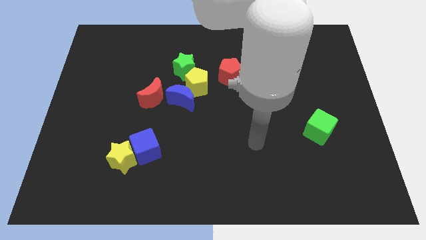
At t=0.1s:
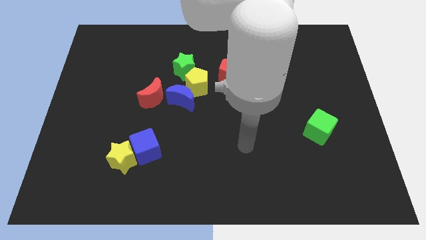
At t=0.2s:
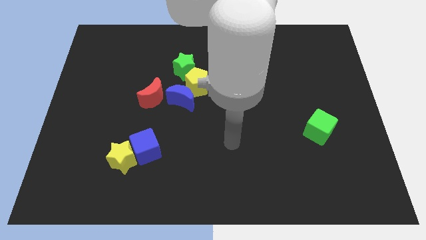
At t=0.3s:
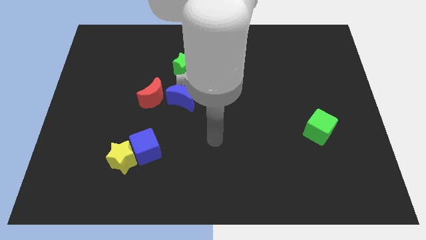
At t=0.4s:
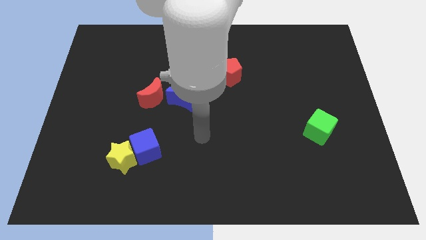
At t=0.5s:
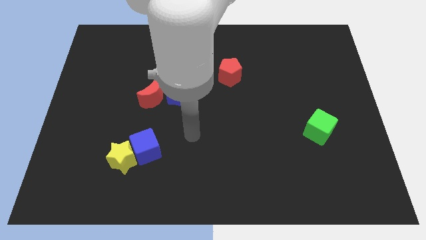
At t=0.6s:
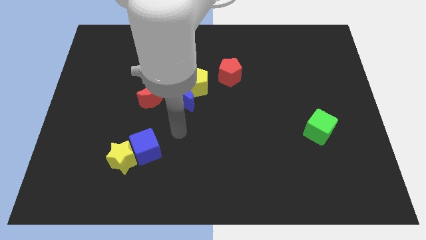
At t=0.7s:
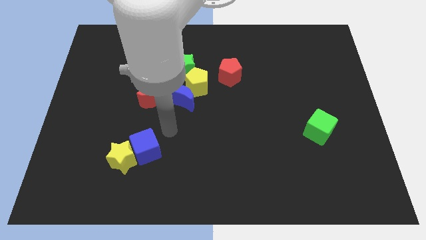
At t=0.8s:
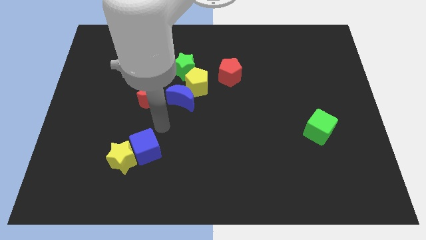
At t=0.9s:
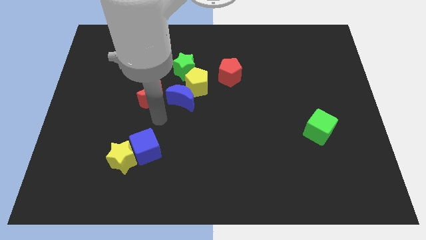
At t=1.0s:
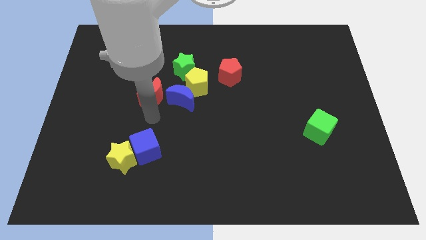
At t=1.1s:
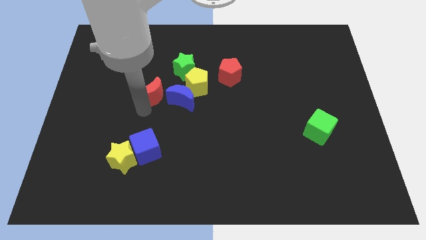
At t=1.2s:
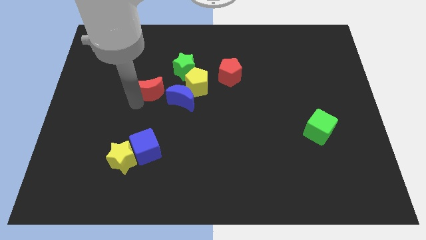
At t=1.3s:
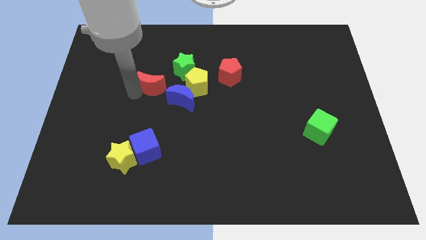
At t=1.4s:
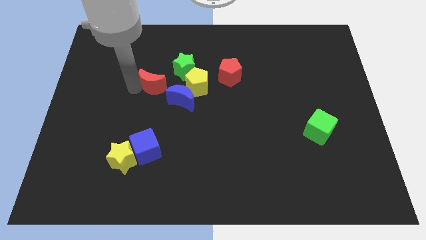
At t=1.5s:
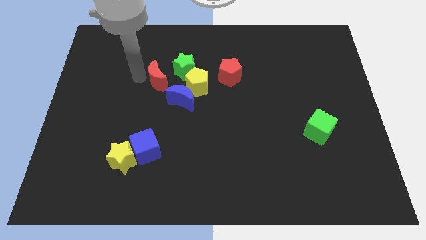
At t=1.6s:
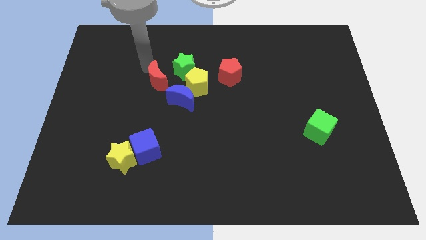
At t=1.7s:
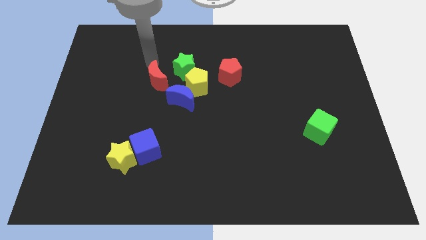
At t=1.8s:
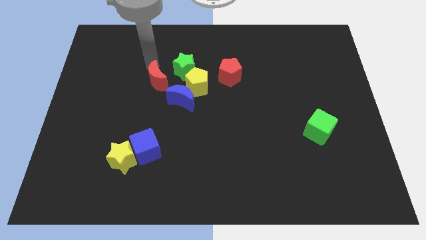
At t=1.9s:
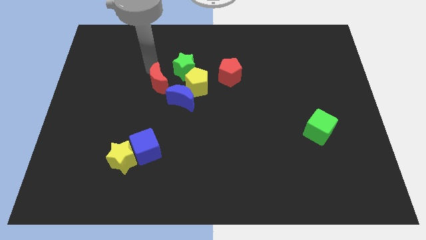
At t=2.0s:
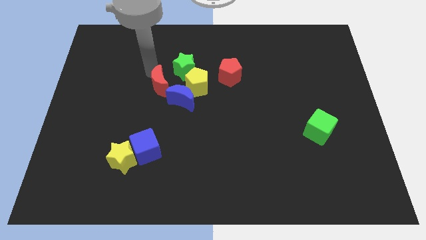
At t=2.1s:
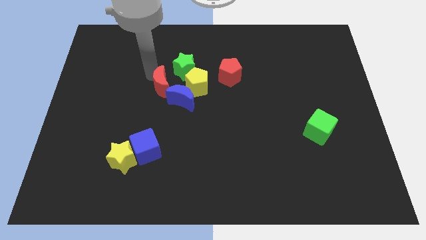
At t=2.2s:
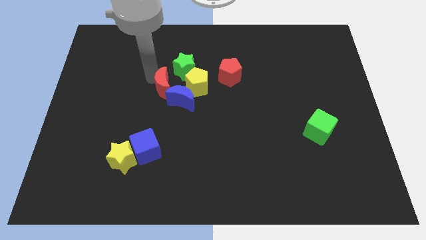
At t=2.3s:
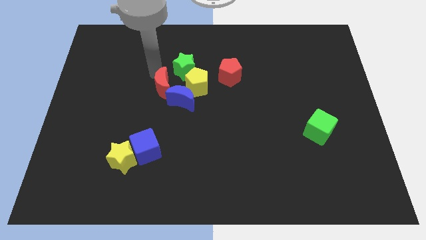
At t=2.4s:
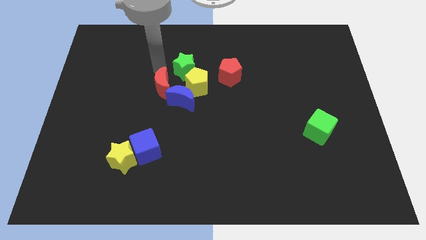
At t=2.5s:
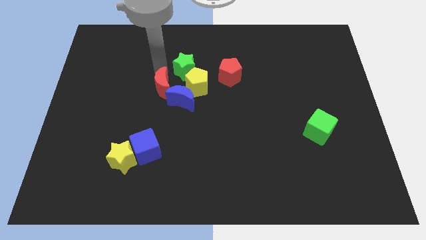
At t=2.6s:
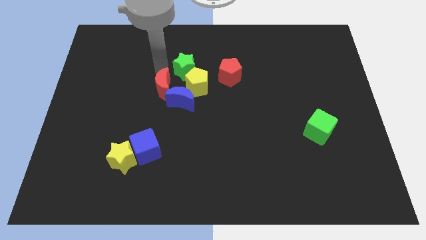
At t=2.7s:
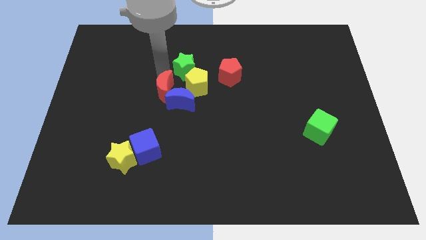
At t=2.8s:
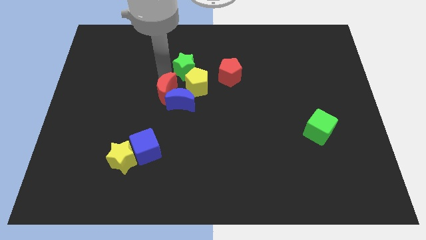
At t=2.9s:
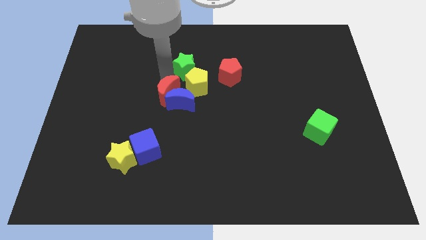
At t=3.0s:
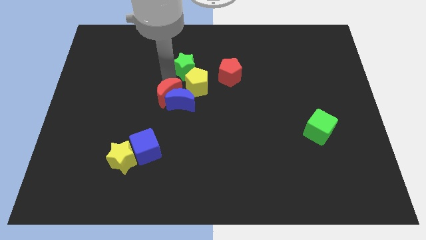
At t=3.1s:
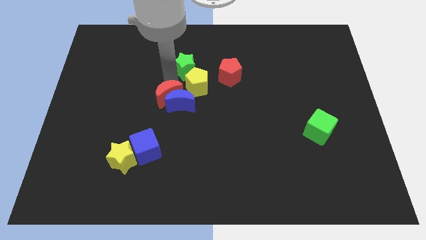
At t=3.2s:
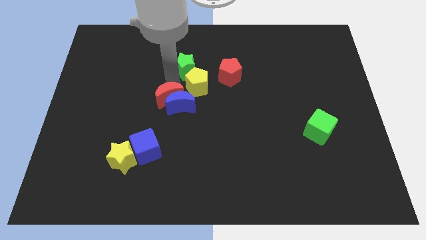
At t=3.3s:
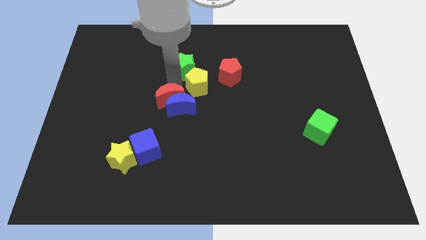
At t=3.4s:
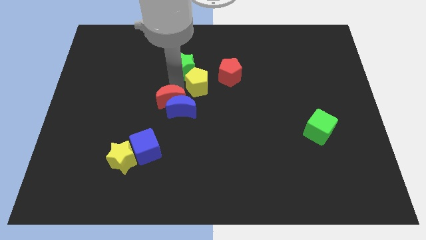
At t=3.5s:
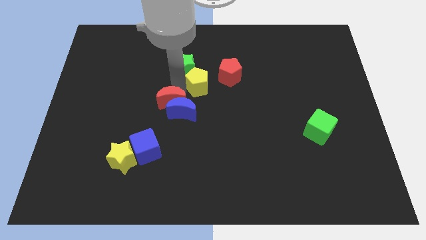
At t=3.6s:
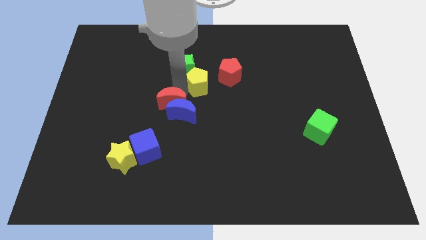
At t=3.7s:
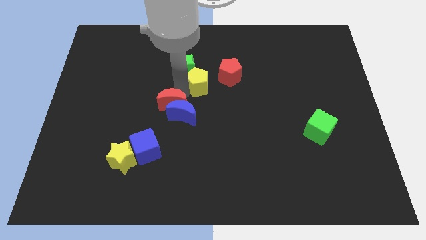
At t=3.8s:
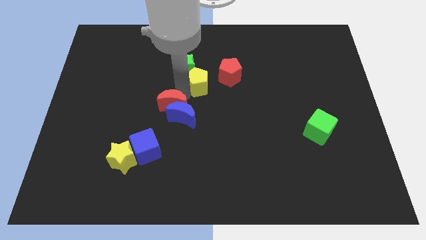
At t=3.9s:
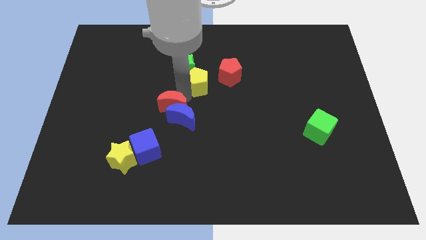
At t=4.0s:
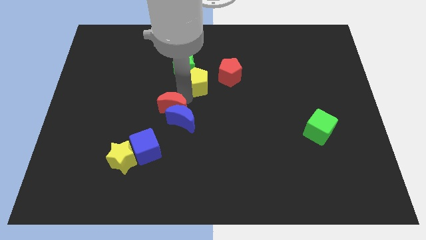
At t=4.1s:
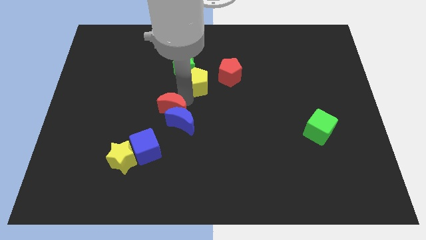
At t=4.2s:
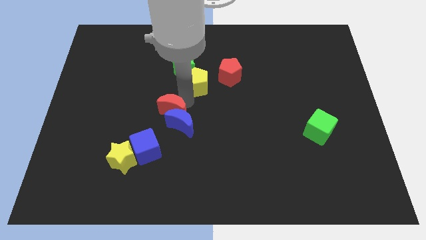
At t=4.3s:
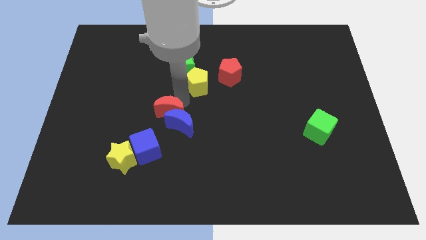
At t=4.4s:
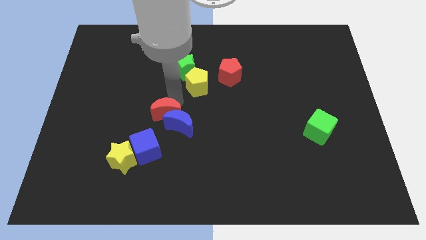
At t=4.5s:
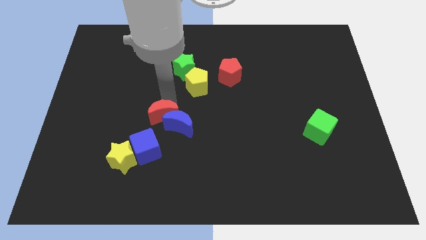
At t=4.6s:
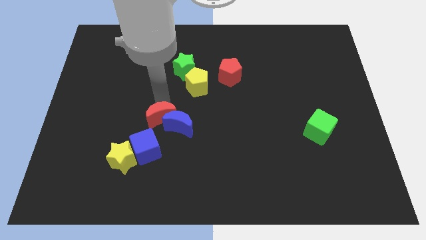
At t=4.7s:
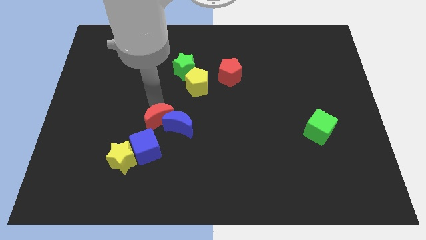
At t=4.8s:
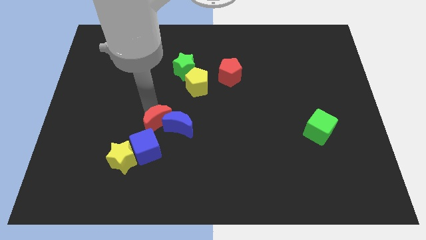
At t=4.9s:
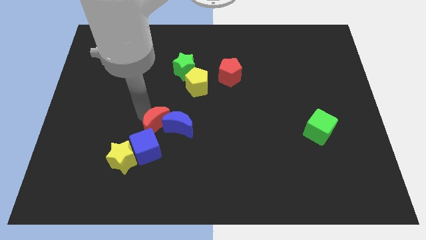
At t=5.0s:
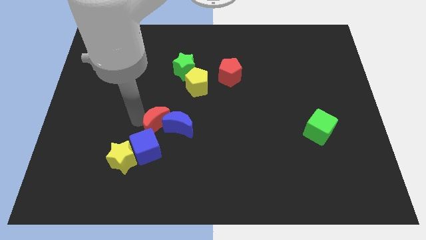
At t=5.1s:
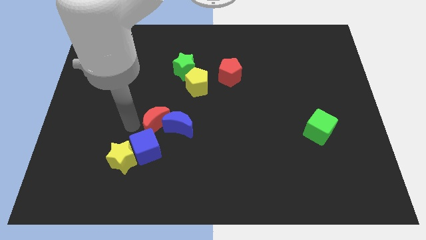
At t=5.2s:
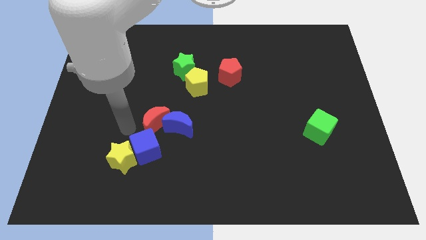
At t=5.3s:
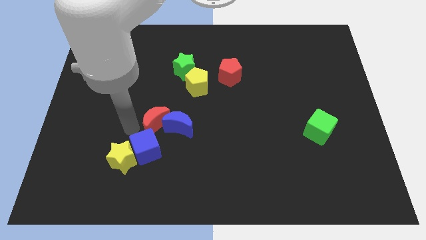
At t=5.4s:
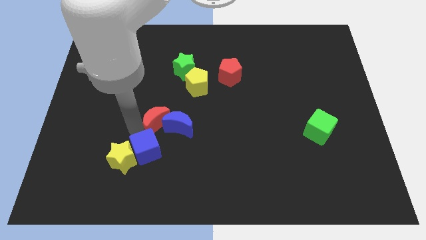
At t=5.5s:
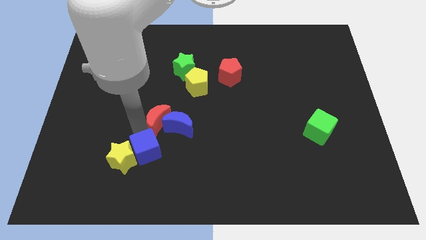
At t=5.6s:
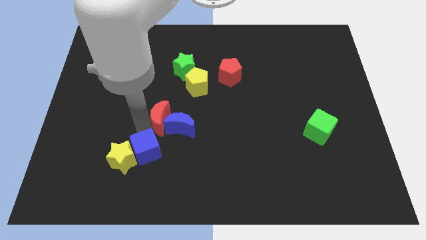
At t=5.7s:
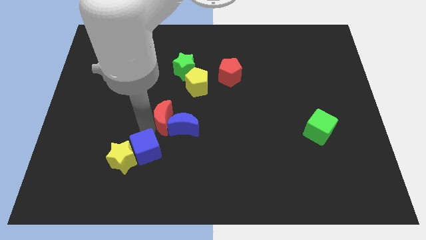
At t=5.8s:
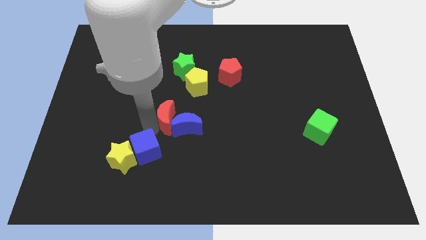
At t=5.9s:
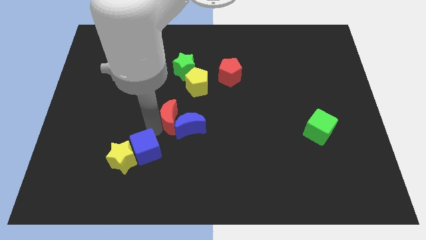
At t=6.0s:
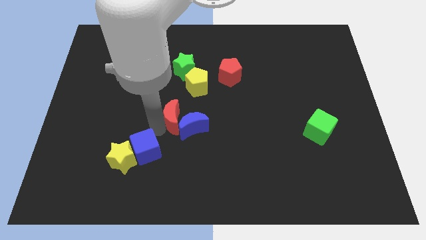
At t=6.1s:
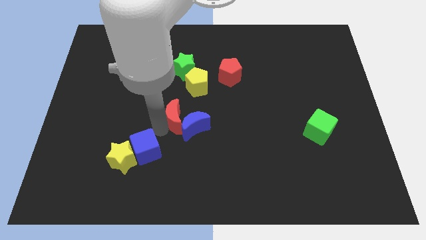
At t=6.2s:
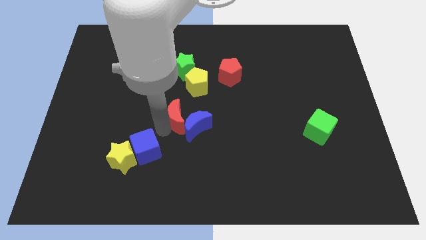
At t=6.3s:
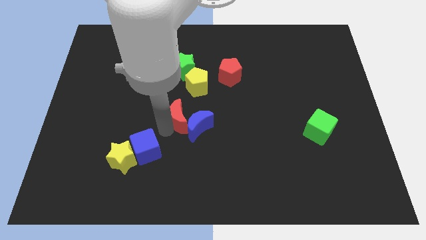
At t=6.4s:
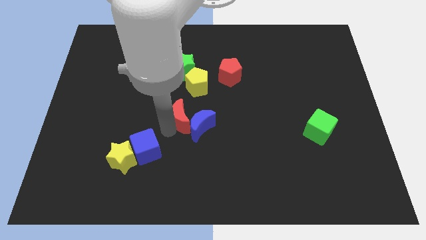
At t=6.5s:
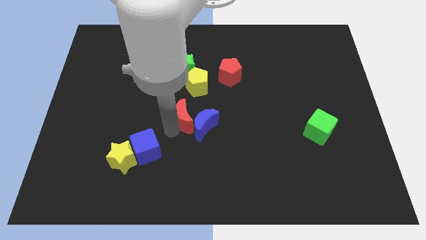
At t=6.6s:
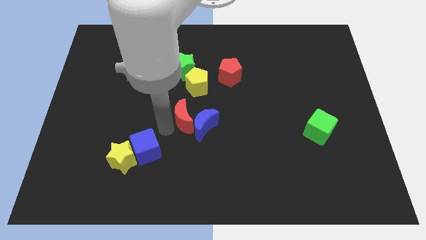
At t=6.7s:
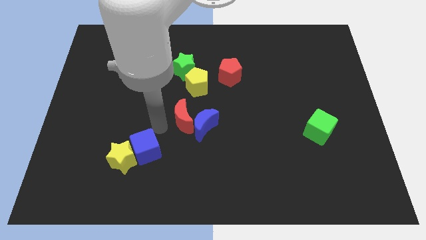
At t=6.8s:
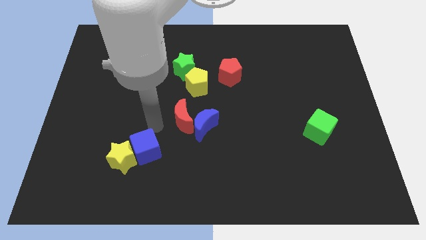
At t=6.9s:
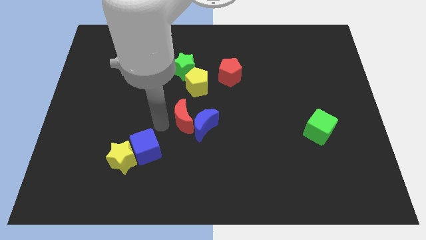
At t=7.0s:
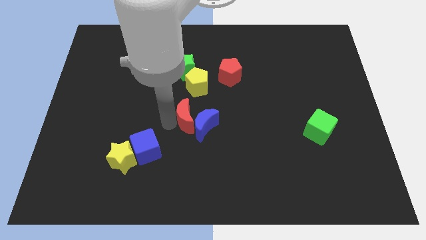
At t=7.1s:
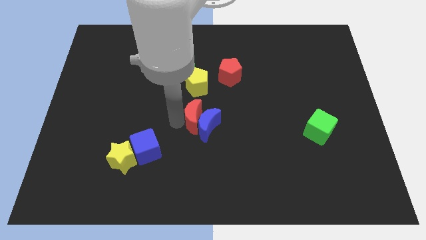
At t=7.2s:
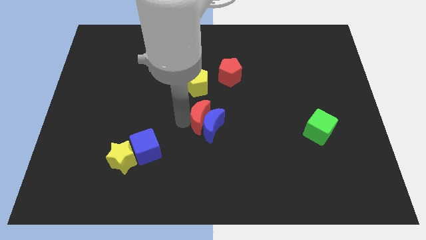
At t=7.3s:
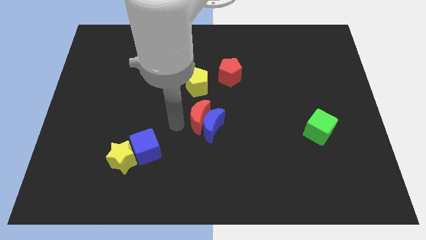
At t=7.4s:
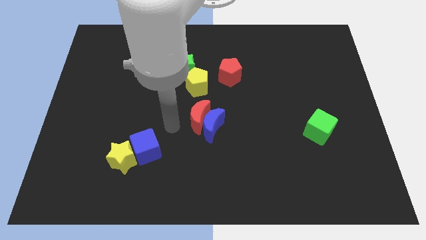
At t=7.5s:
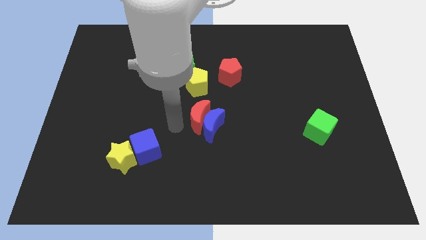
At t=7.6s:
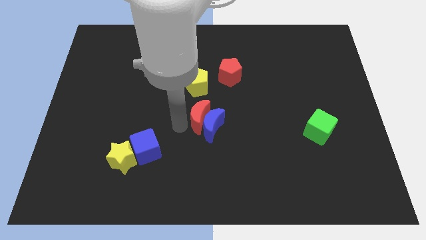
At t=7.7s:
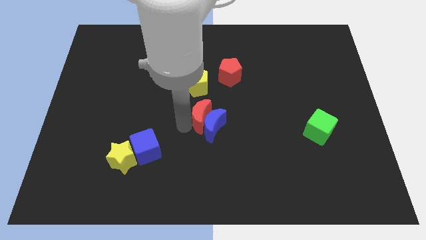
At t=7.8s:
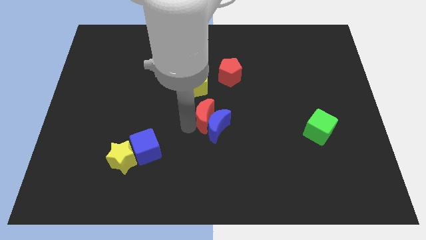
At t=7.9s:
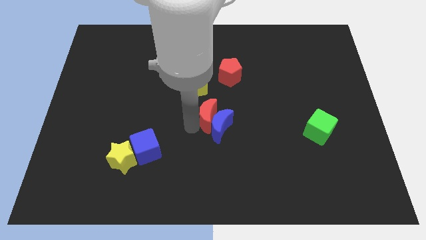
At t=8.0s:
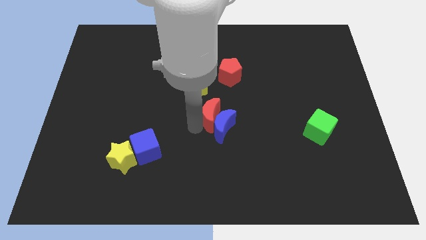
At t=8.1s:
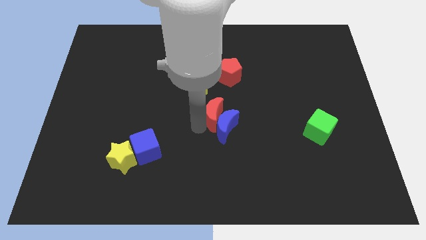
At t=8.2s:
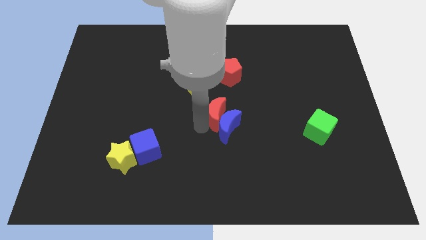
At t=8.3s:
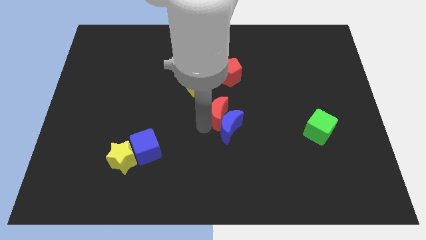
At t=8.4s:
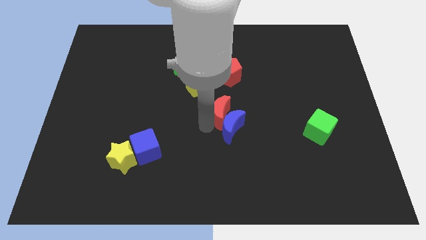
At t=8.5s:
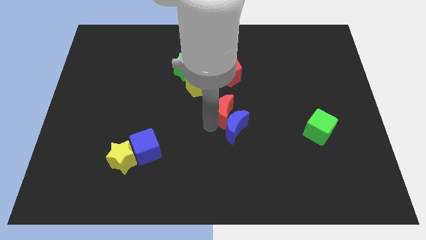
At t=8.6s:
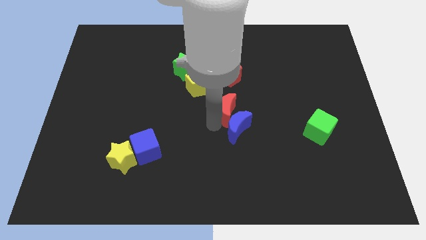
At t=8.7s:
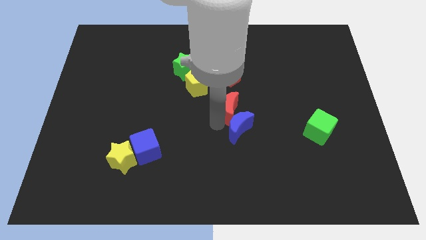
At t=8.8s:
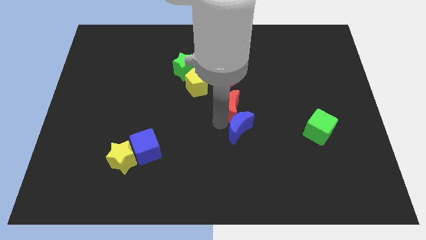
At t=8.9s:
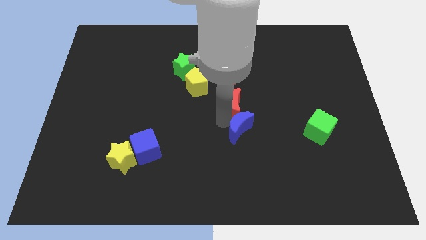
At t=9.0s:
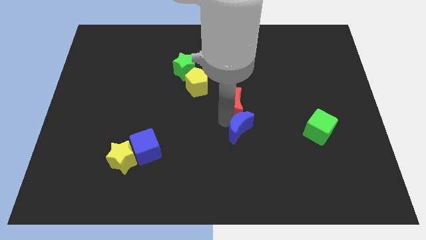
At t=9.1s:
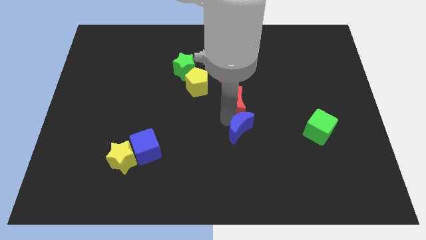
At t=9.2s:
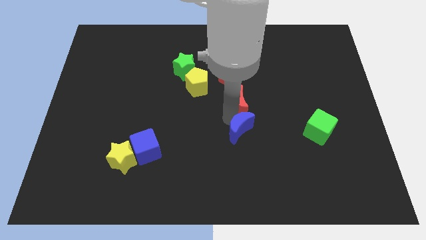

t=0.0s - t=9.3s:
move the red moon to the right
